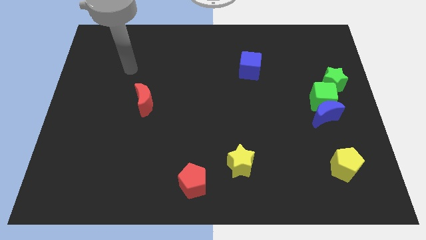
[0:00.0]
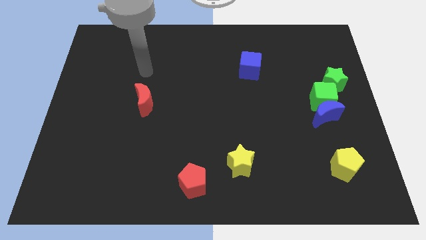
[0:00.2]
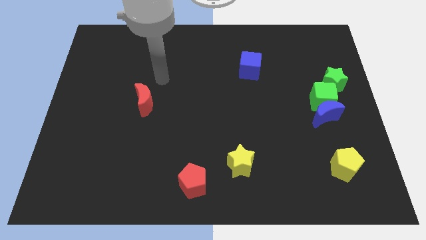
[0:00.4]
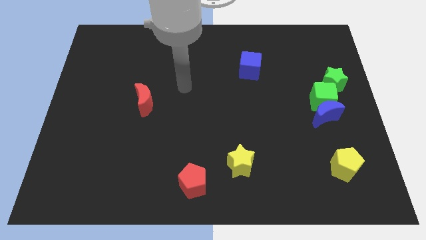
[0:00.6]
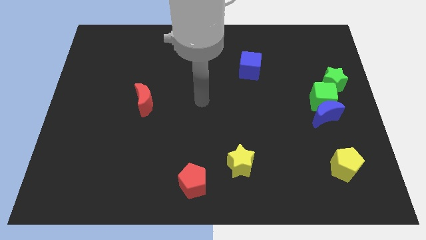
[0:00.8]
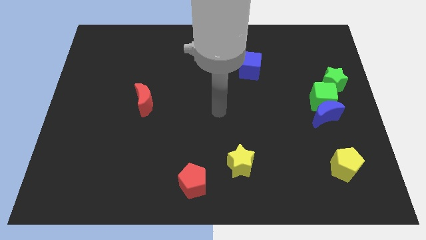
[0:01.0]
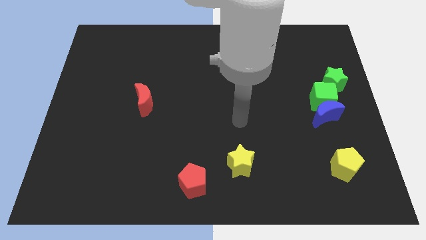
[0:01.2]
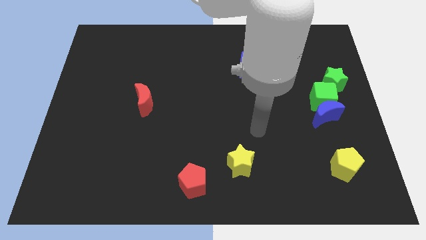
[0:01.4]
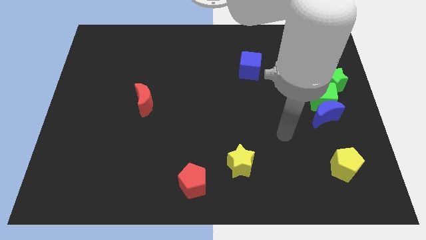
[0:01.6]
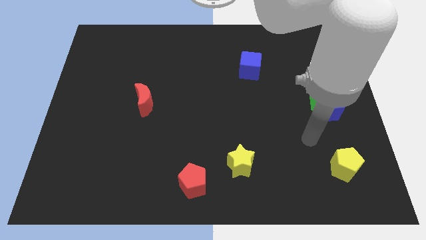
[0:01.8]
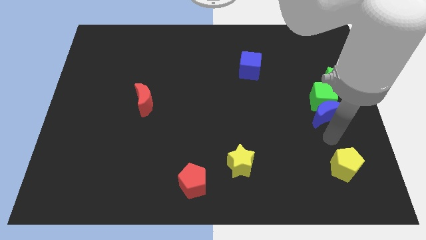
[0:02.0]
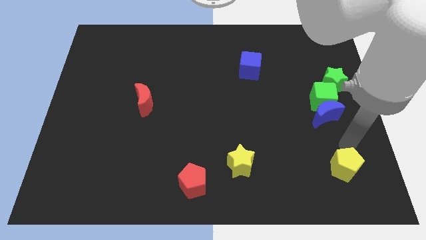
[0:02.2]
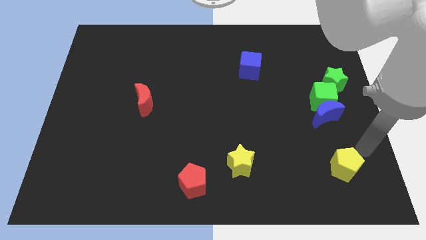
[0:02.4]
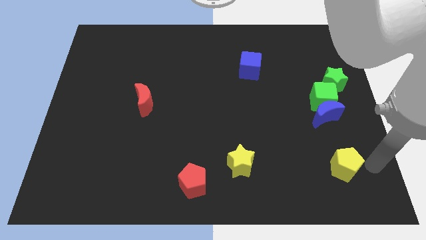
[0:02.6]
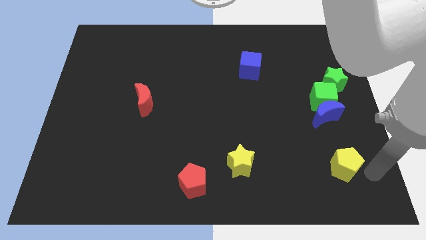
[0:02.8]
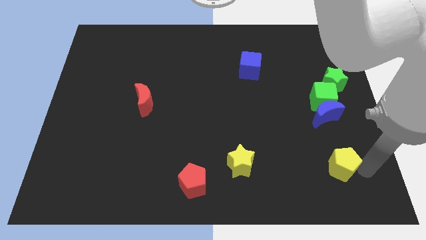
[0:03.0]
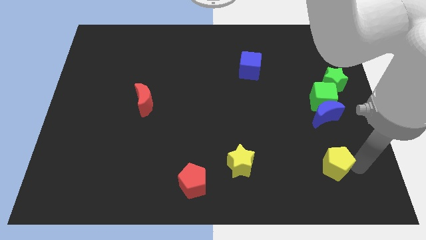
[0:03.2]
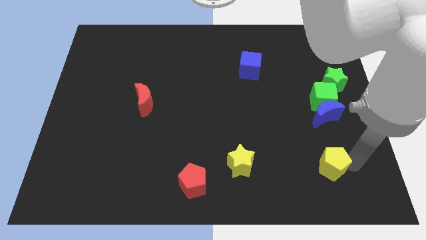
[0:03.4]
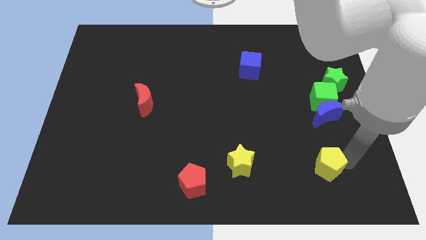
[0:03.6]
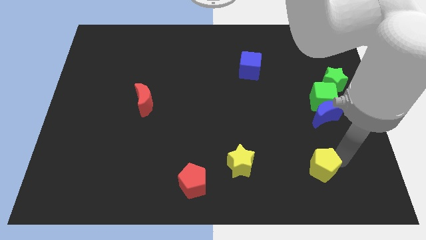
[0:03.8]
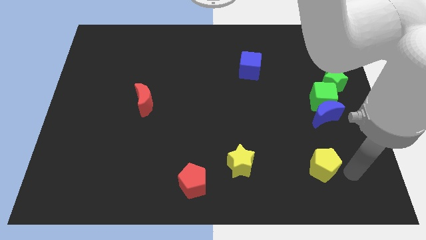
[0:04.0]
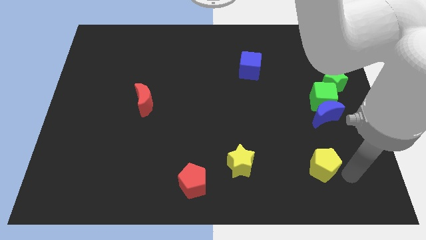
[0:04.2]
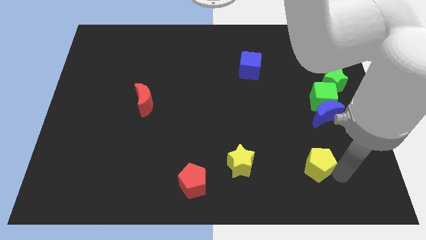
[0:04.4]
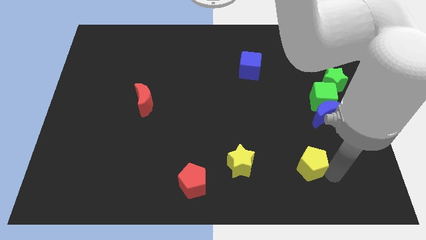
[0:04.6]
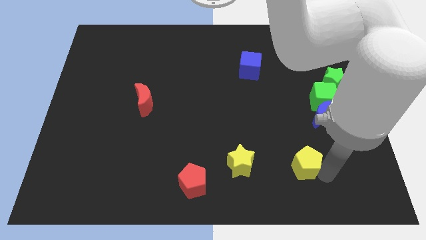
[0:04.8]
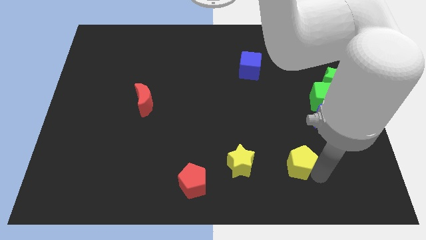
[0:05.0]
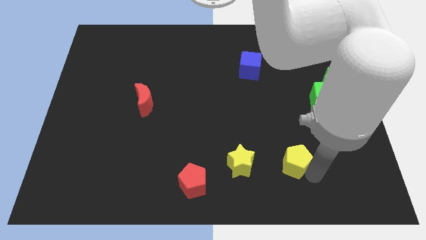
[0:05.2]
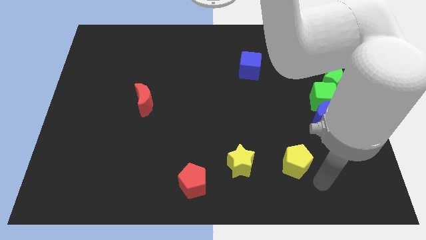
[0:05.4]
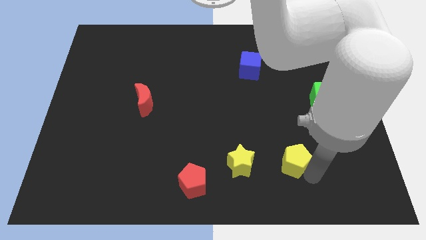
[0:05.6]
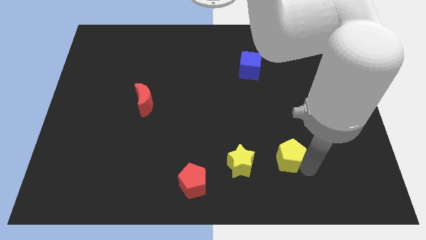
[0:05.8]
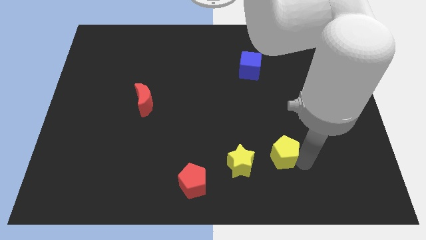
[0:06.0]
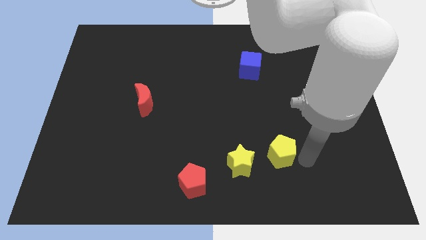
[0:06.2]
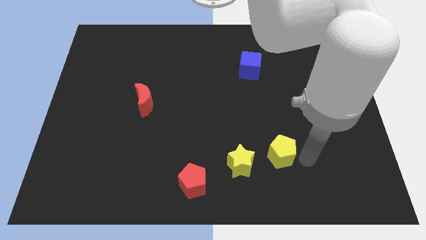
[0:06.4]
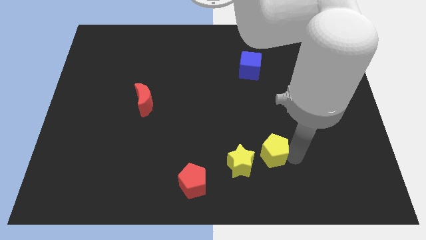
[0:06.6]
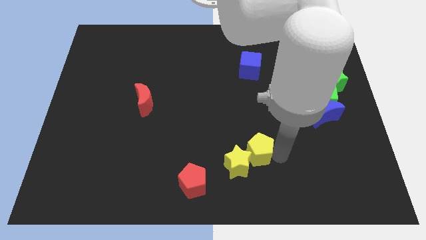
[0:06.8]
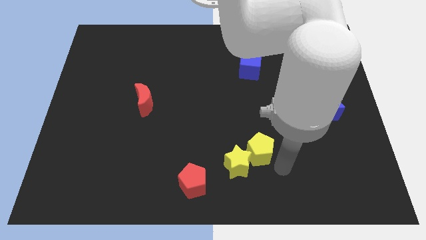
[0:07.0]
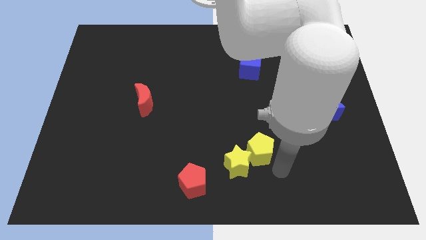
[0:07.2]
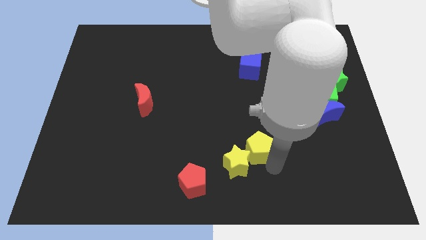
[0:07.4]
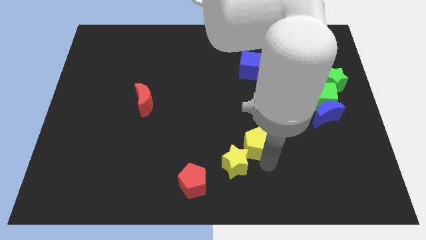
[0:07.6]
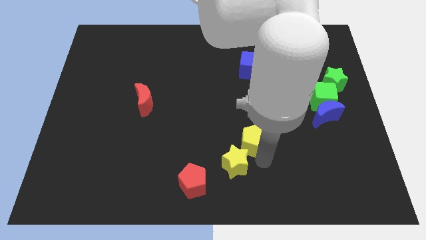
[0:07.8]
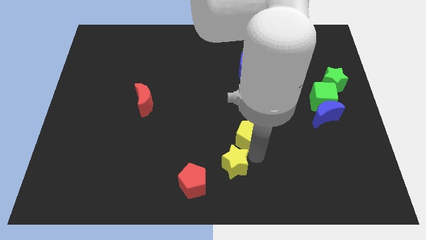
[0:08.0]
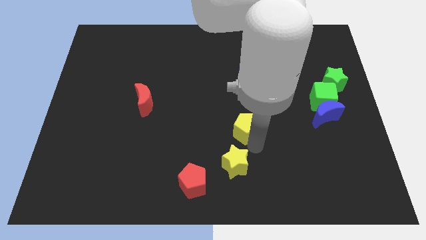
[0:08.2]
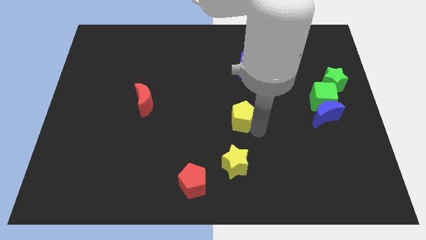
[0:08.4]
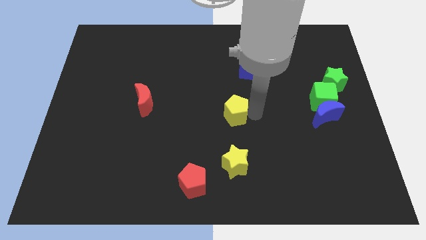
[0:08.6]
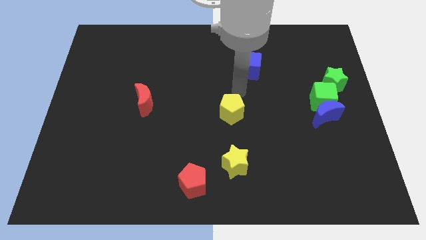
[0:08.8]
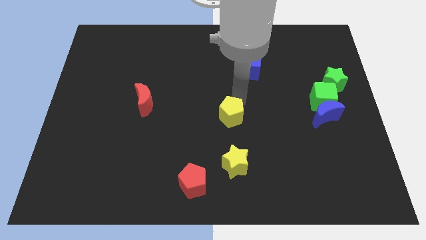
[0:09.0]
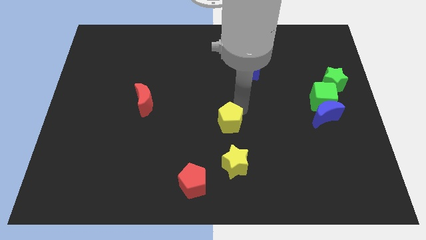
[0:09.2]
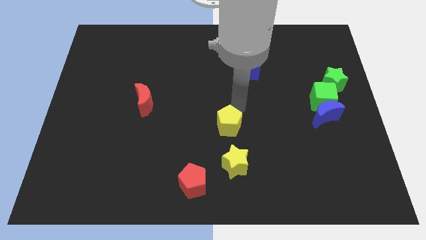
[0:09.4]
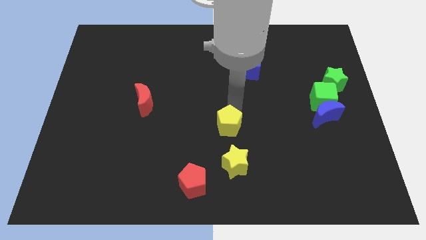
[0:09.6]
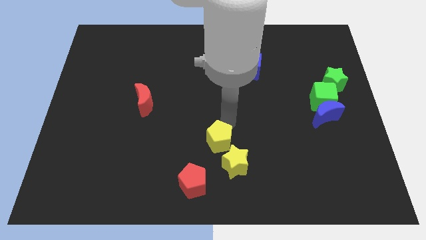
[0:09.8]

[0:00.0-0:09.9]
push the yellow pentagon to the top right side of the red pentagon

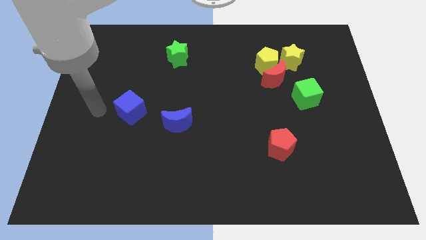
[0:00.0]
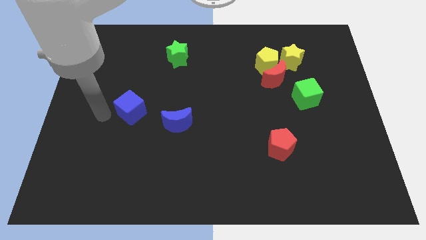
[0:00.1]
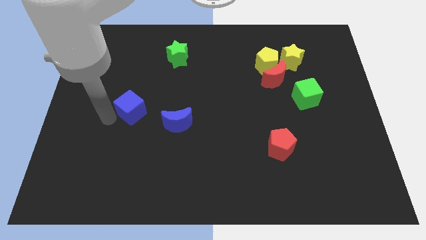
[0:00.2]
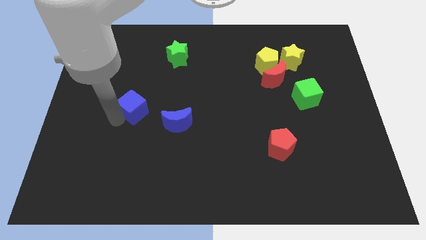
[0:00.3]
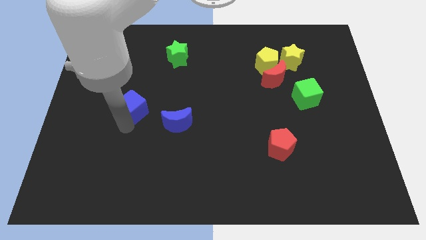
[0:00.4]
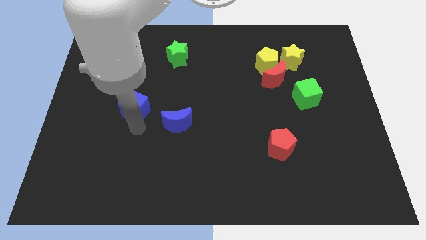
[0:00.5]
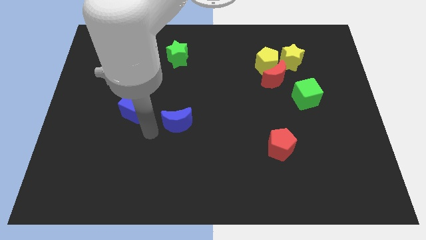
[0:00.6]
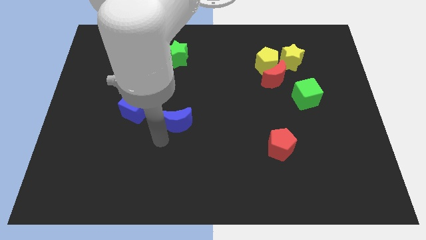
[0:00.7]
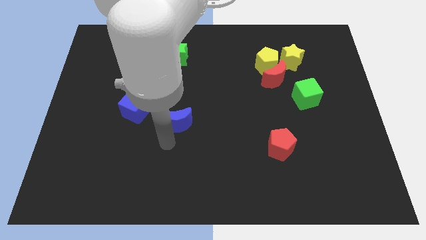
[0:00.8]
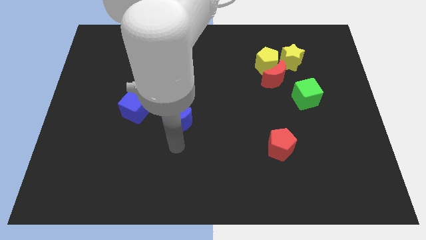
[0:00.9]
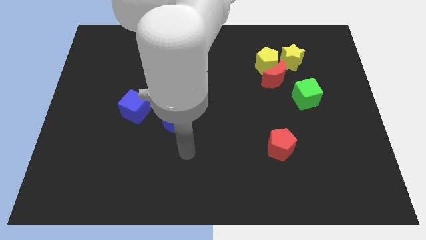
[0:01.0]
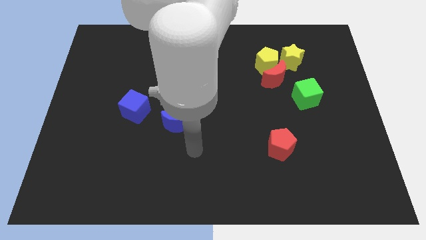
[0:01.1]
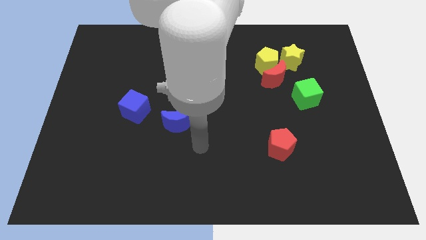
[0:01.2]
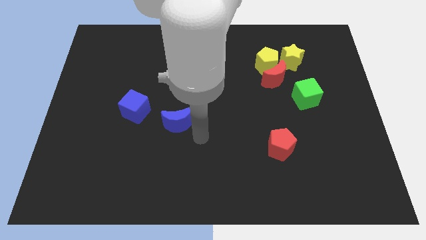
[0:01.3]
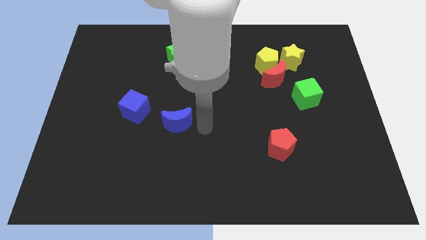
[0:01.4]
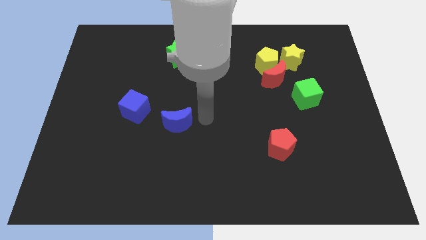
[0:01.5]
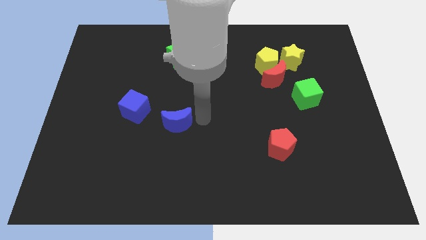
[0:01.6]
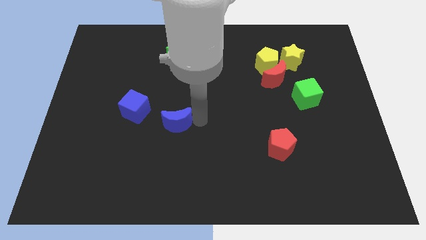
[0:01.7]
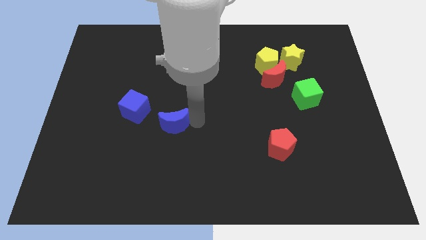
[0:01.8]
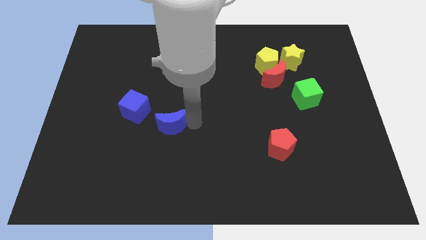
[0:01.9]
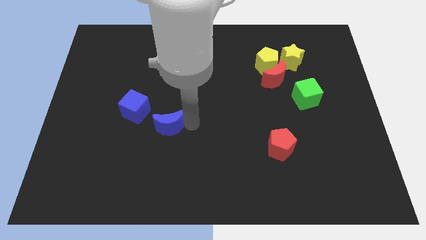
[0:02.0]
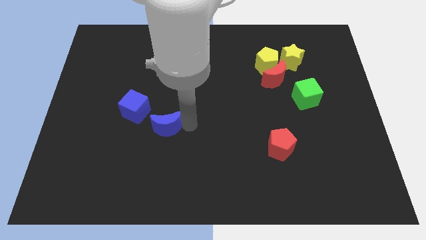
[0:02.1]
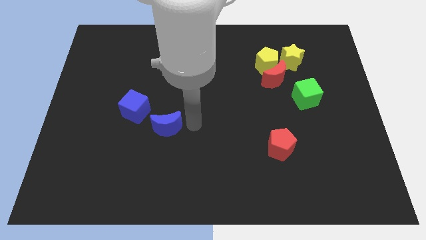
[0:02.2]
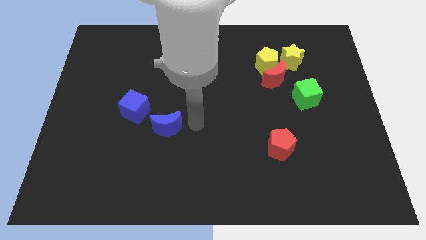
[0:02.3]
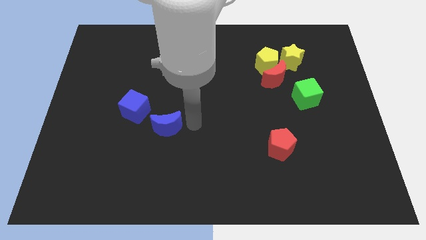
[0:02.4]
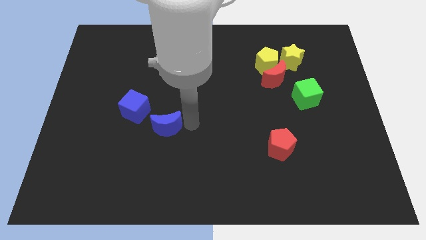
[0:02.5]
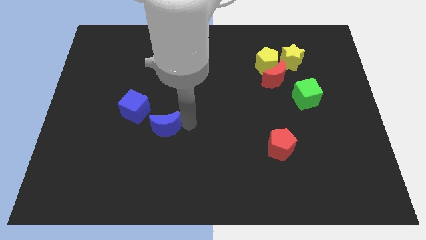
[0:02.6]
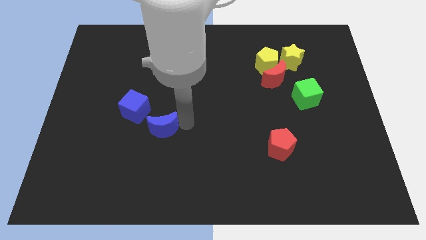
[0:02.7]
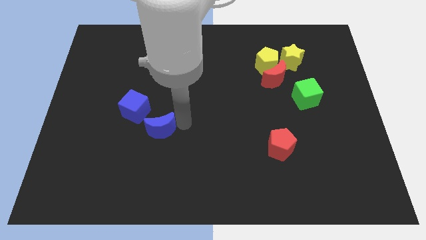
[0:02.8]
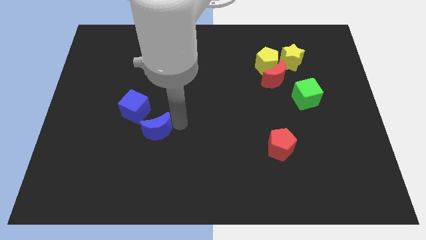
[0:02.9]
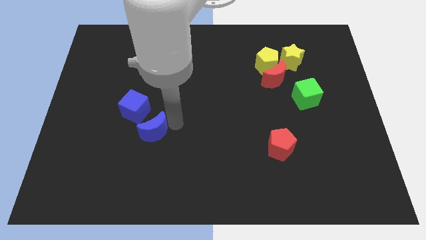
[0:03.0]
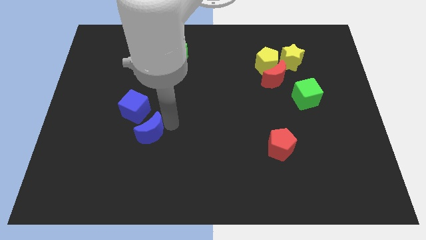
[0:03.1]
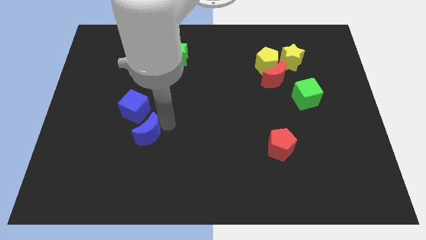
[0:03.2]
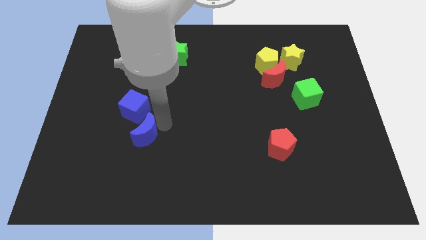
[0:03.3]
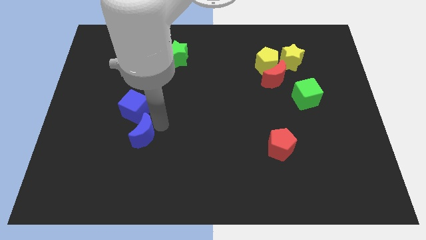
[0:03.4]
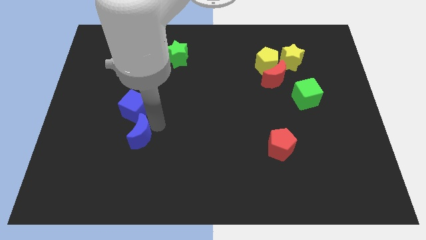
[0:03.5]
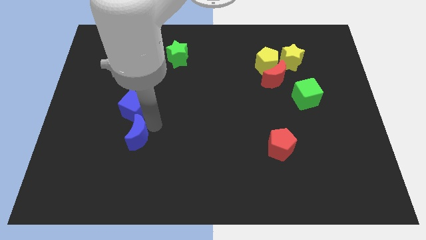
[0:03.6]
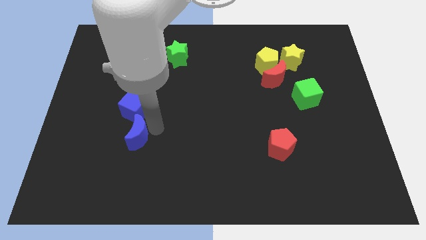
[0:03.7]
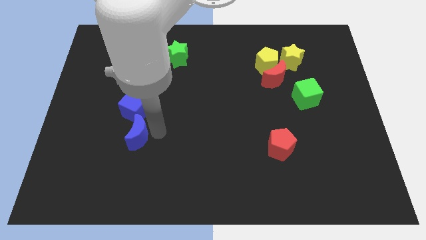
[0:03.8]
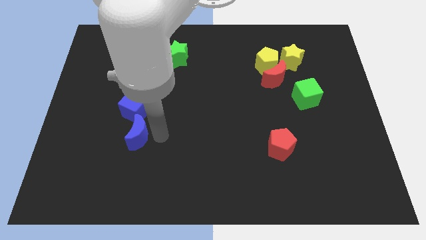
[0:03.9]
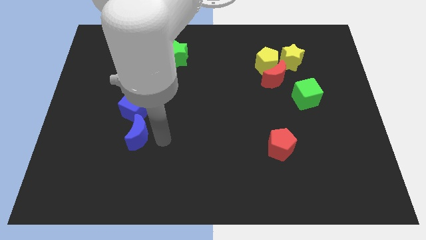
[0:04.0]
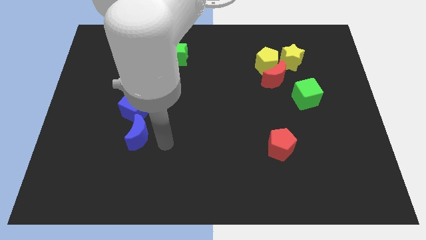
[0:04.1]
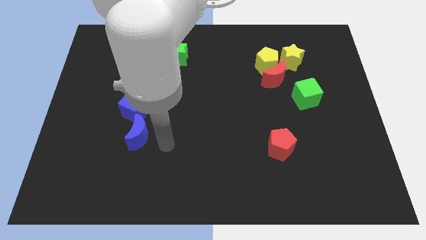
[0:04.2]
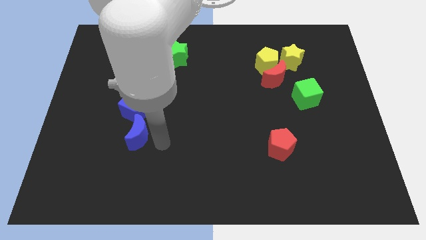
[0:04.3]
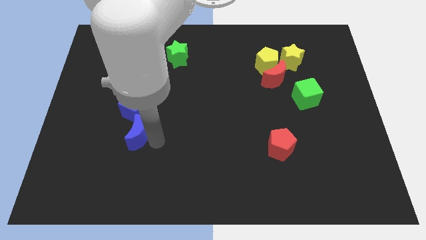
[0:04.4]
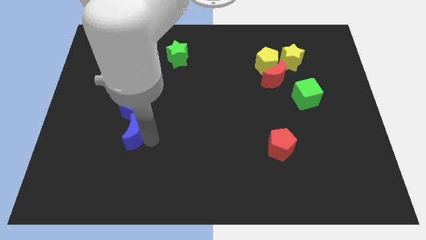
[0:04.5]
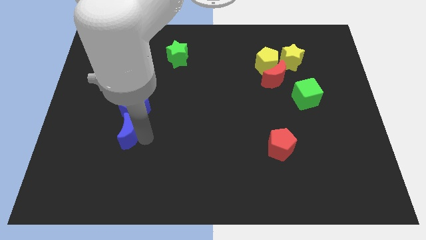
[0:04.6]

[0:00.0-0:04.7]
slide the blue moon to the bottom left side of the blue cube
